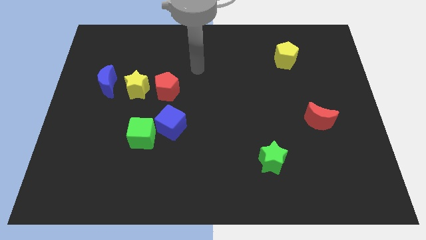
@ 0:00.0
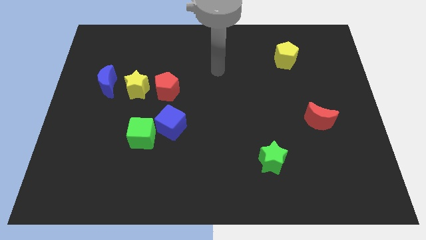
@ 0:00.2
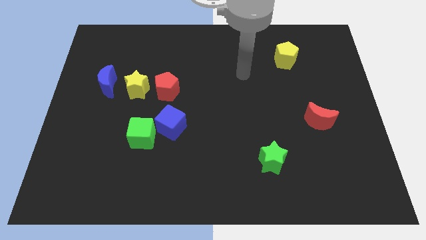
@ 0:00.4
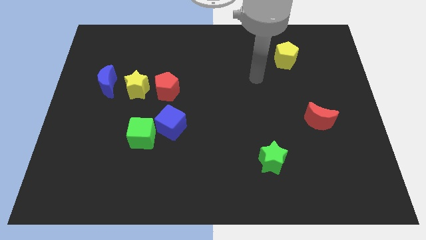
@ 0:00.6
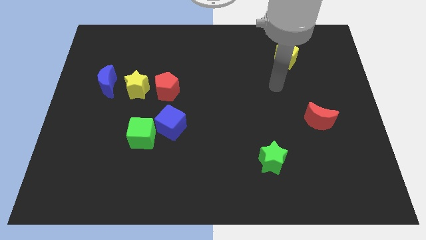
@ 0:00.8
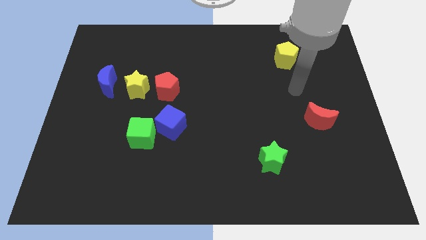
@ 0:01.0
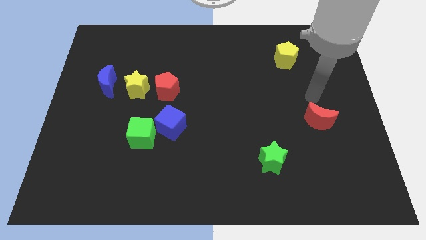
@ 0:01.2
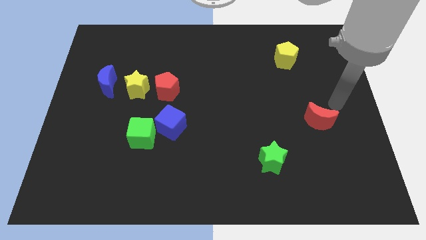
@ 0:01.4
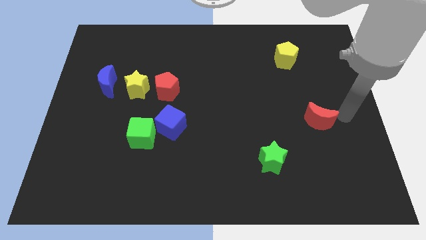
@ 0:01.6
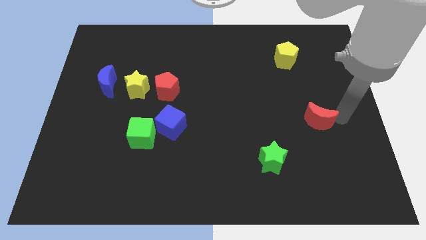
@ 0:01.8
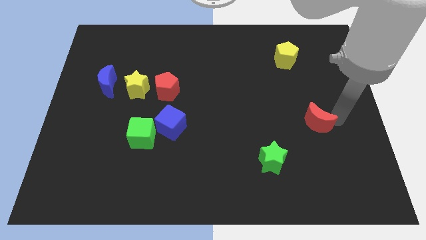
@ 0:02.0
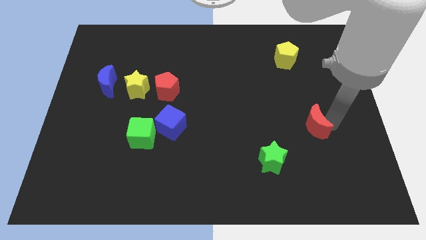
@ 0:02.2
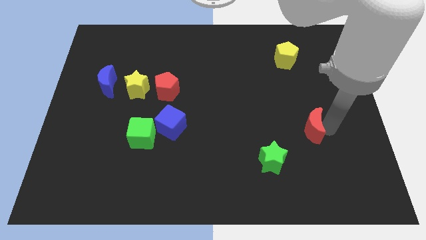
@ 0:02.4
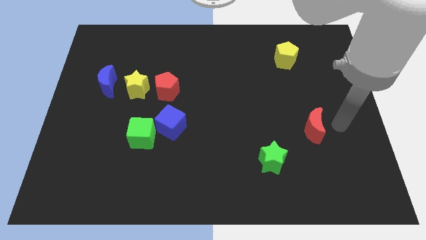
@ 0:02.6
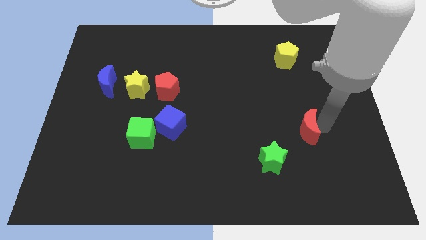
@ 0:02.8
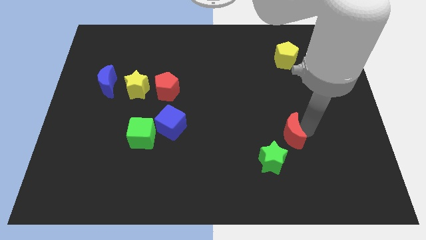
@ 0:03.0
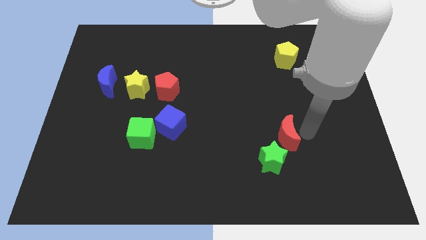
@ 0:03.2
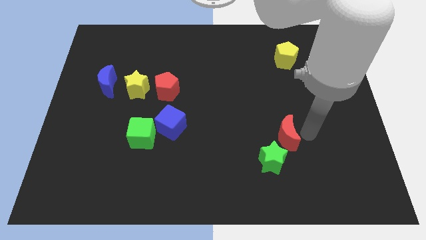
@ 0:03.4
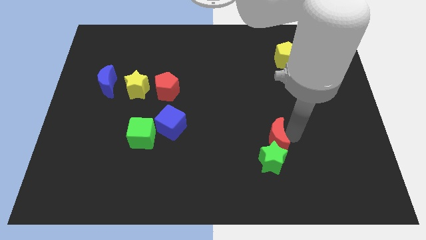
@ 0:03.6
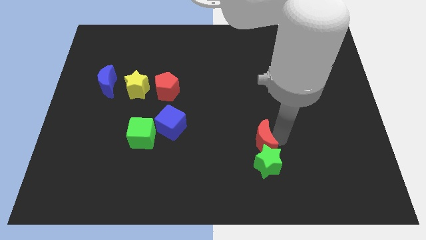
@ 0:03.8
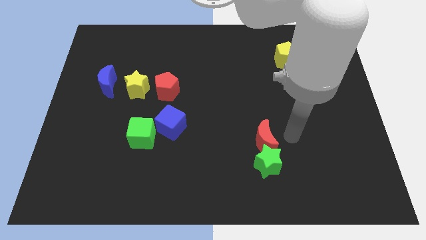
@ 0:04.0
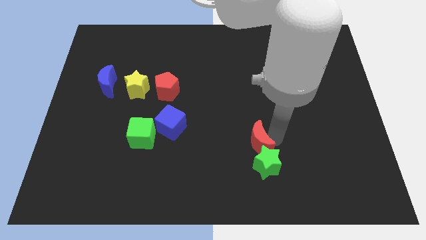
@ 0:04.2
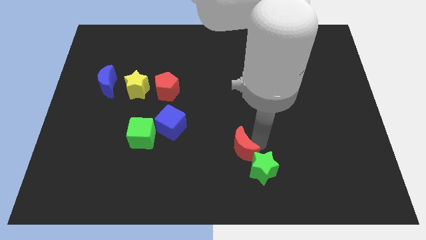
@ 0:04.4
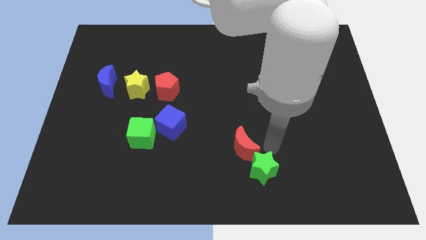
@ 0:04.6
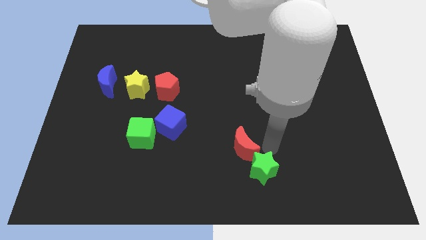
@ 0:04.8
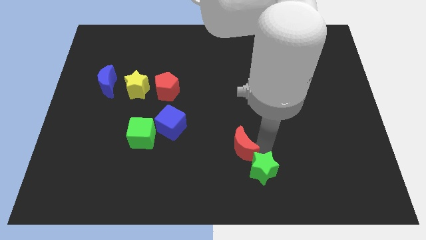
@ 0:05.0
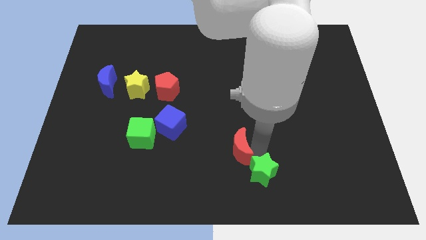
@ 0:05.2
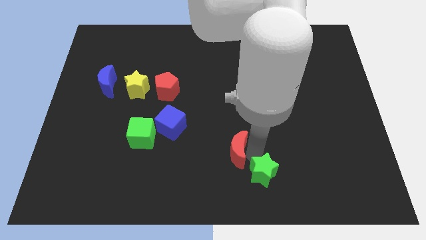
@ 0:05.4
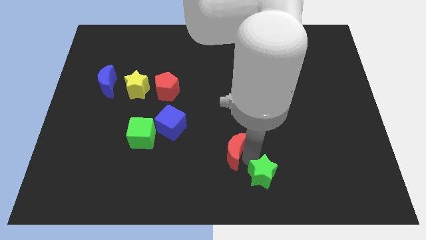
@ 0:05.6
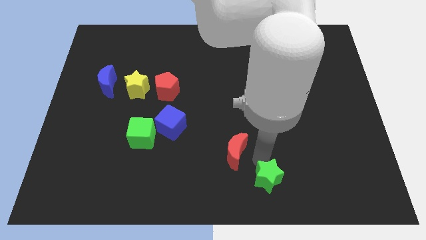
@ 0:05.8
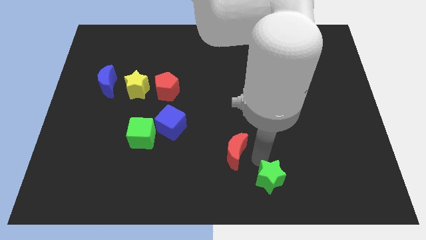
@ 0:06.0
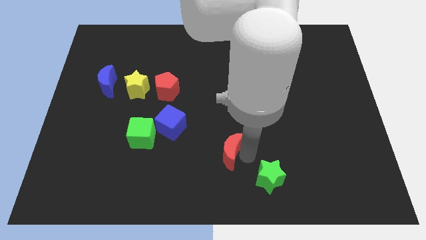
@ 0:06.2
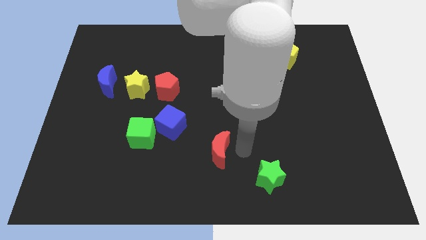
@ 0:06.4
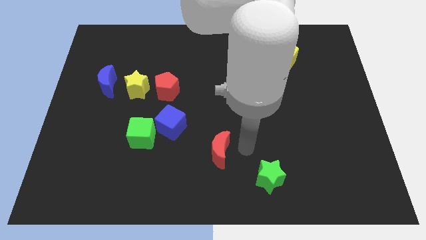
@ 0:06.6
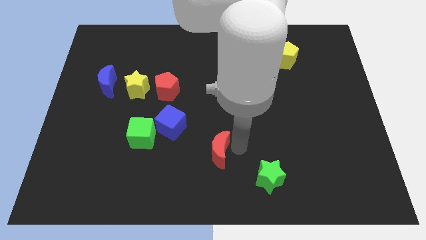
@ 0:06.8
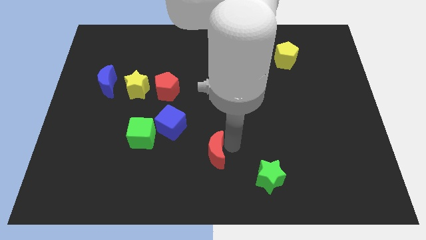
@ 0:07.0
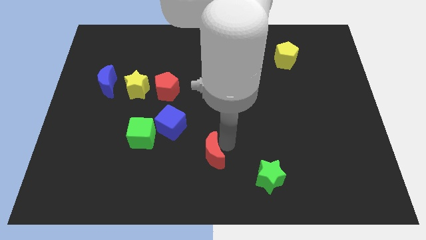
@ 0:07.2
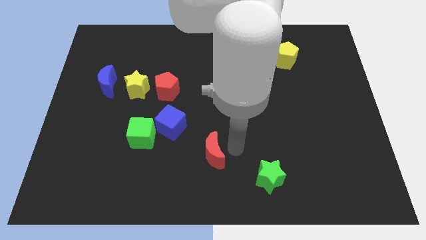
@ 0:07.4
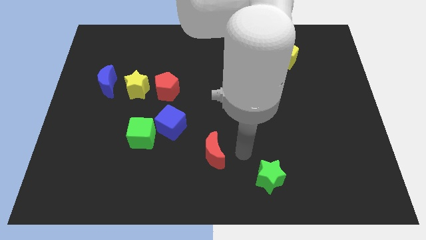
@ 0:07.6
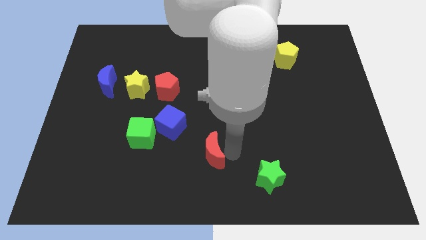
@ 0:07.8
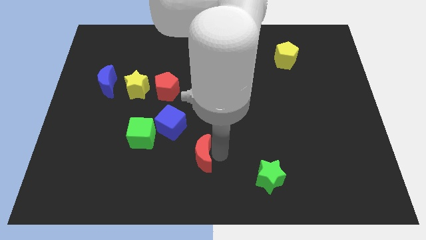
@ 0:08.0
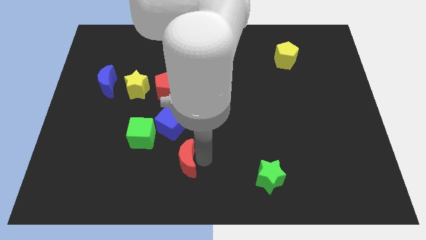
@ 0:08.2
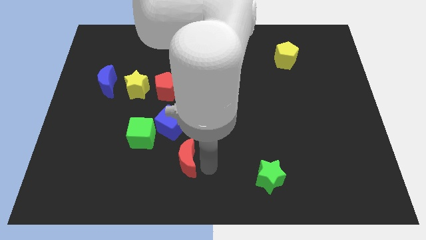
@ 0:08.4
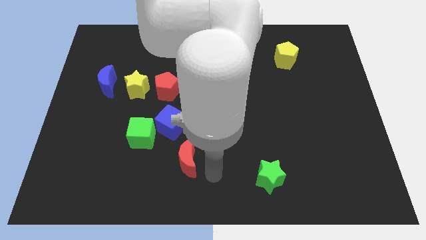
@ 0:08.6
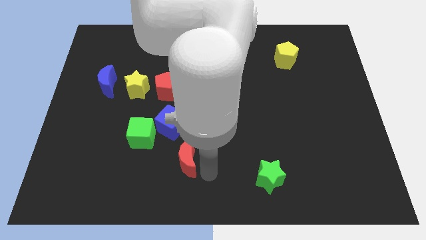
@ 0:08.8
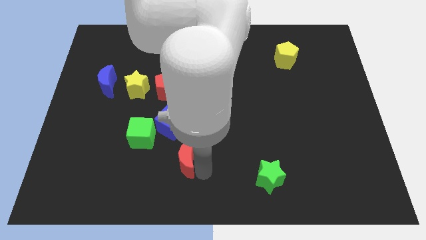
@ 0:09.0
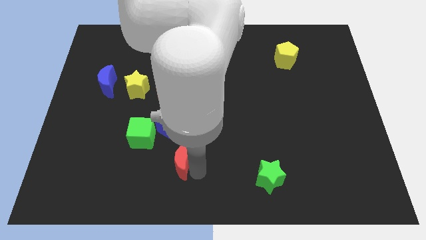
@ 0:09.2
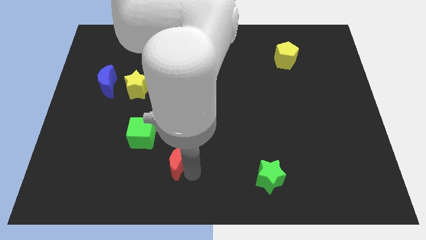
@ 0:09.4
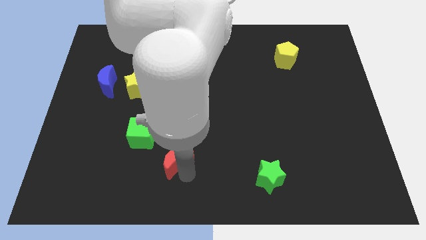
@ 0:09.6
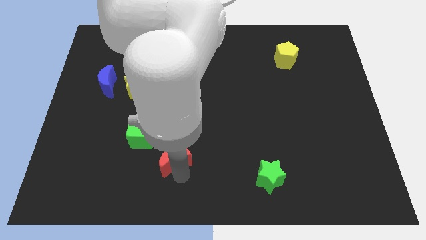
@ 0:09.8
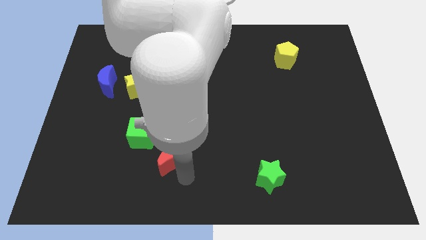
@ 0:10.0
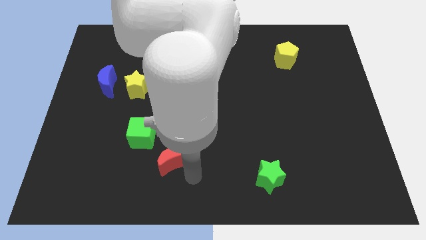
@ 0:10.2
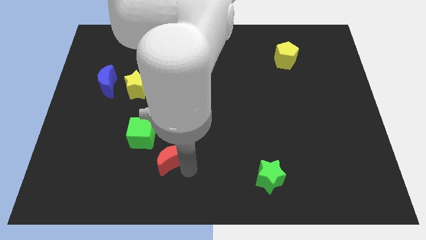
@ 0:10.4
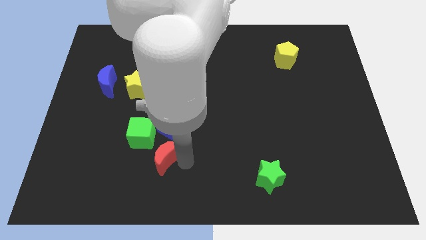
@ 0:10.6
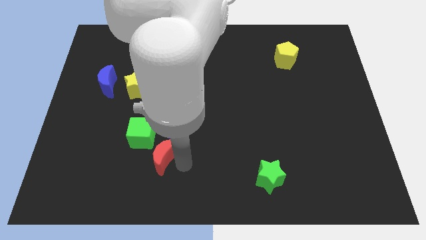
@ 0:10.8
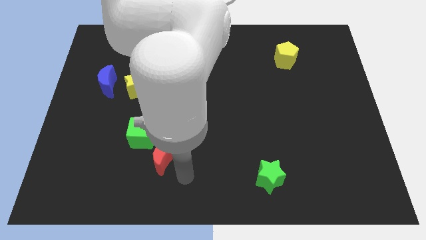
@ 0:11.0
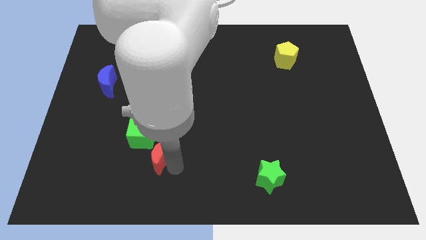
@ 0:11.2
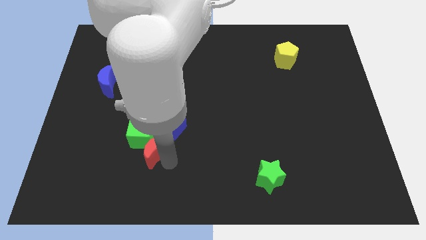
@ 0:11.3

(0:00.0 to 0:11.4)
move the red moon next to the green cube

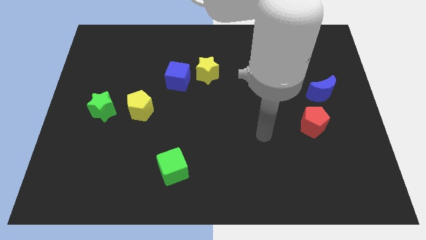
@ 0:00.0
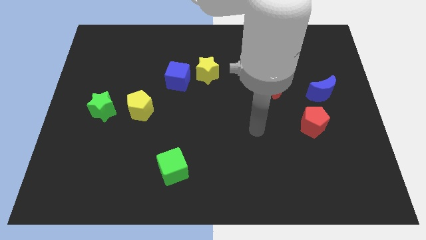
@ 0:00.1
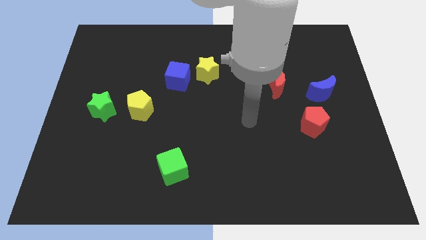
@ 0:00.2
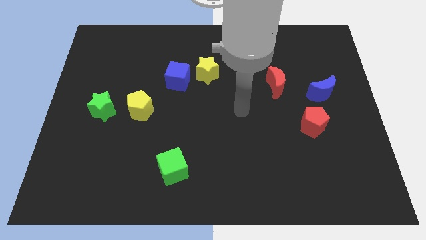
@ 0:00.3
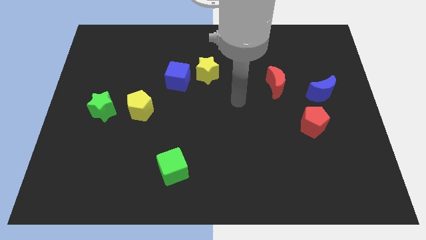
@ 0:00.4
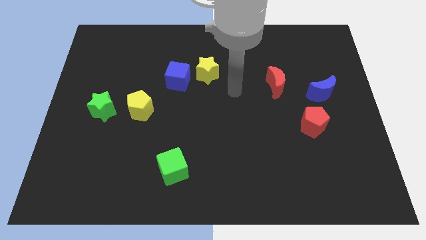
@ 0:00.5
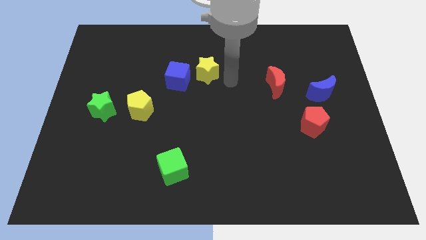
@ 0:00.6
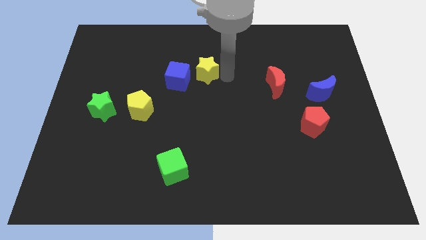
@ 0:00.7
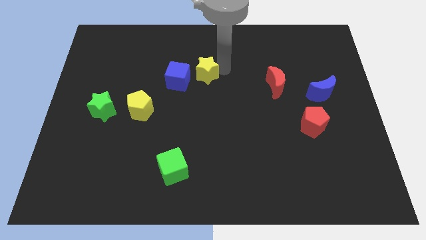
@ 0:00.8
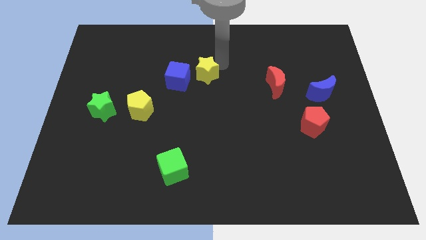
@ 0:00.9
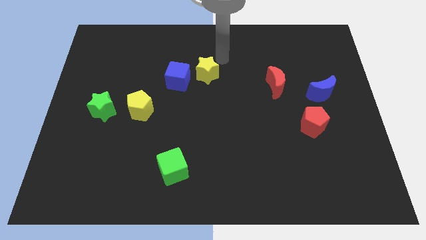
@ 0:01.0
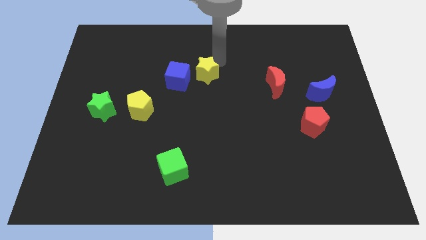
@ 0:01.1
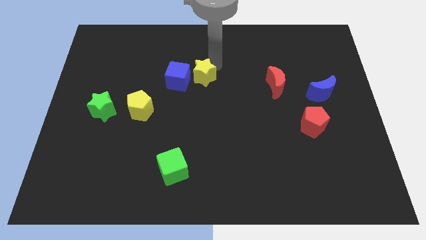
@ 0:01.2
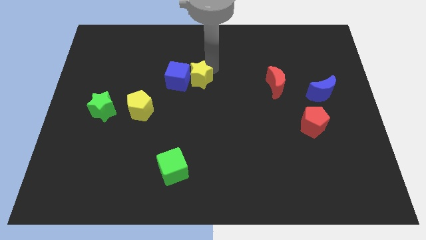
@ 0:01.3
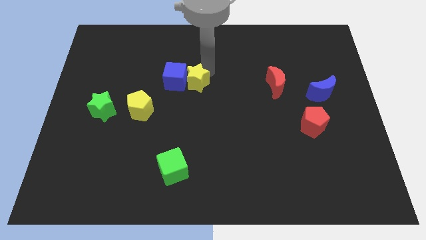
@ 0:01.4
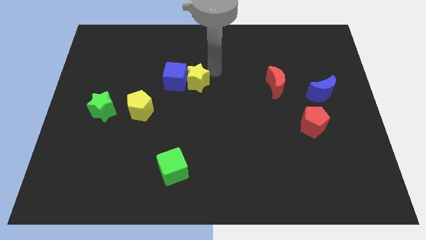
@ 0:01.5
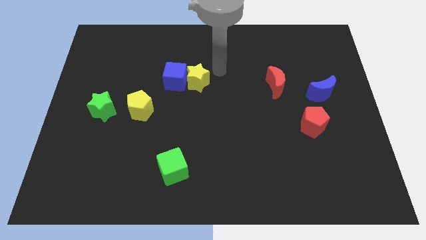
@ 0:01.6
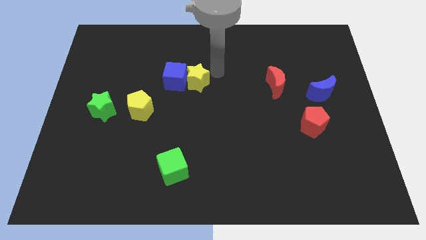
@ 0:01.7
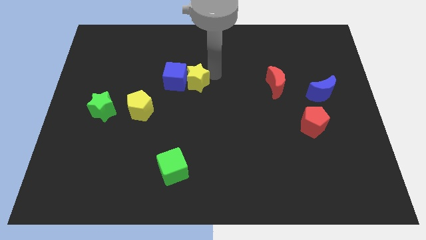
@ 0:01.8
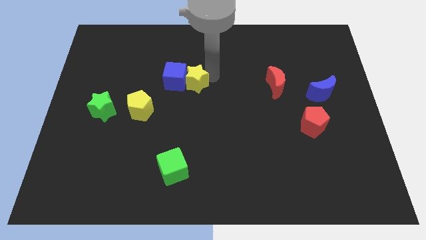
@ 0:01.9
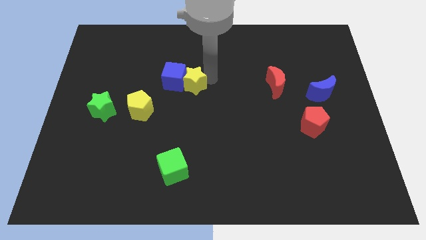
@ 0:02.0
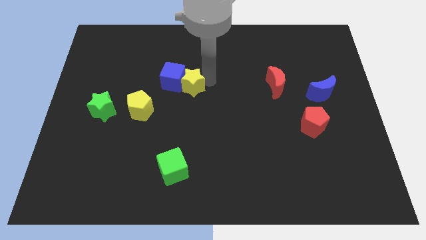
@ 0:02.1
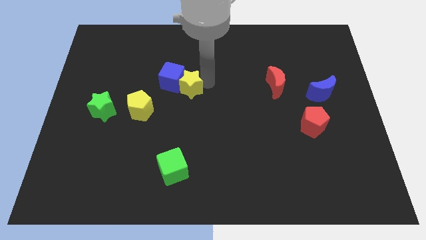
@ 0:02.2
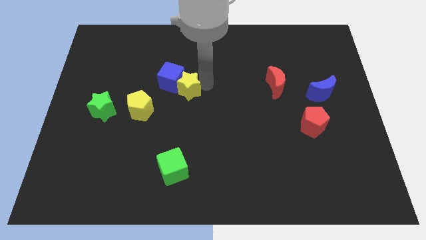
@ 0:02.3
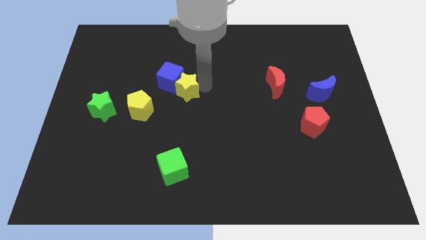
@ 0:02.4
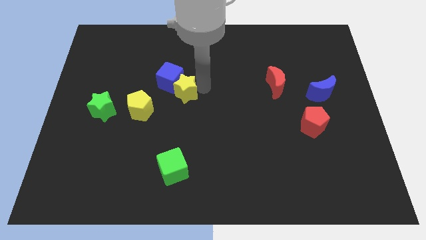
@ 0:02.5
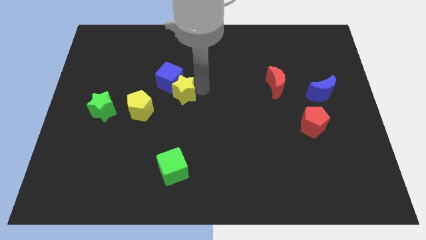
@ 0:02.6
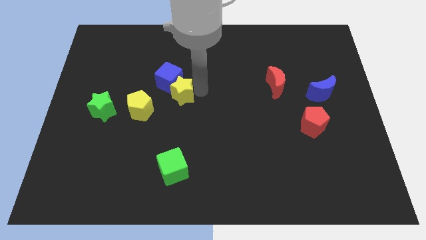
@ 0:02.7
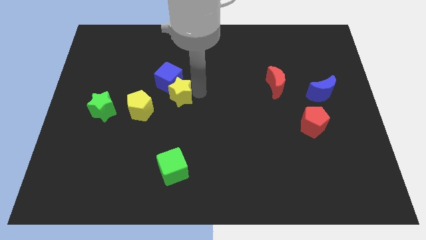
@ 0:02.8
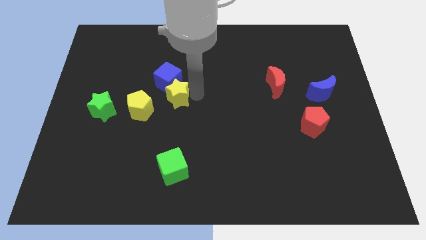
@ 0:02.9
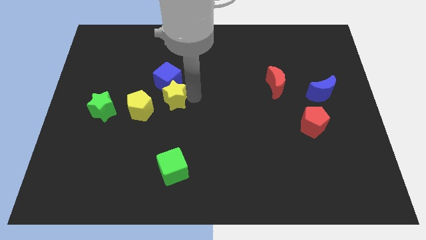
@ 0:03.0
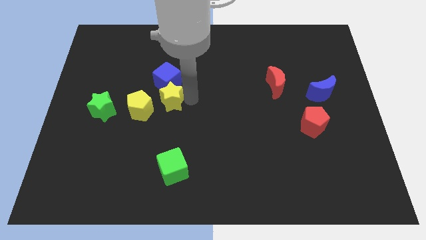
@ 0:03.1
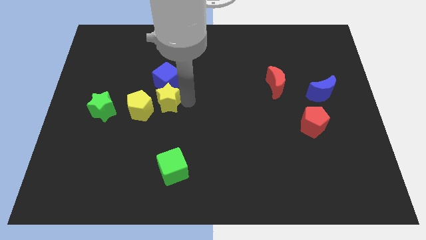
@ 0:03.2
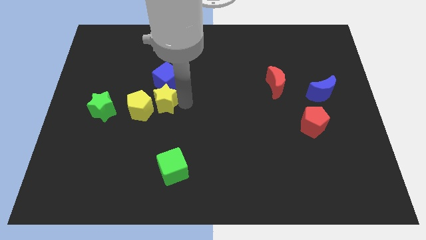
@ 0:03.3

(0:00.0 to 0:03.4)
move the yellow star to the yellow pentagon
